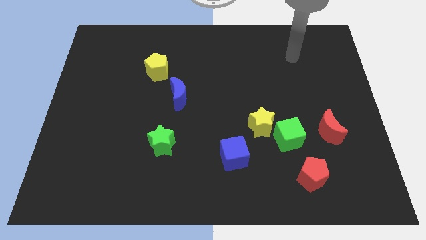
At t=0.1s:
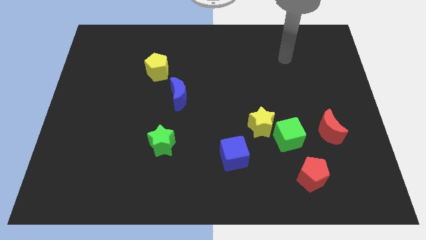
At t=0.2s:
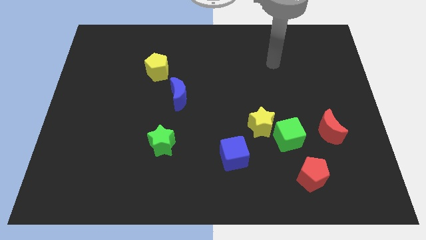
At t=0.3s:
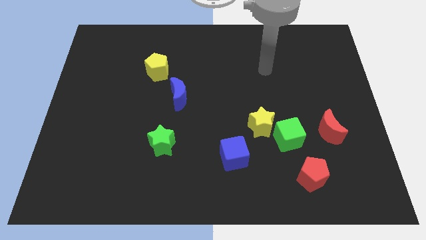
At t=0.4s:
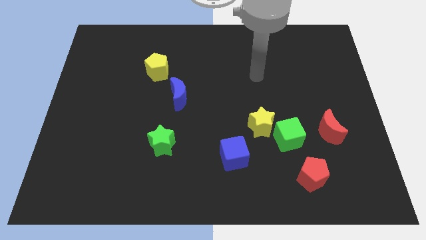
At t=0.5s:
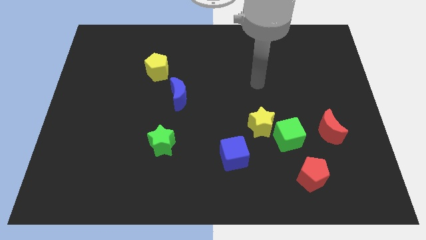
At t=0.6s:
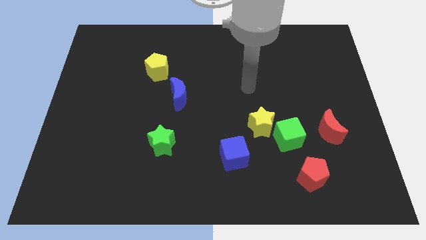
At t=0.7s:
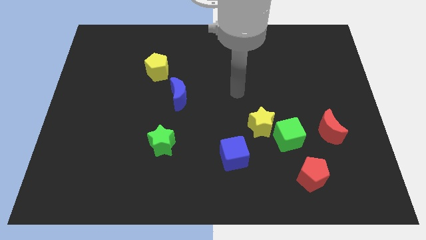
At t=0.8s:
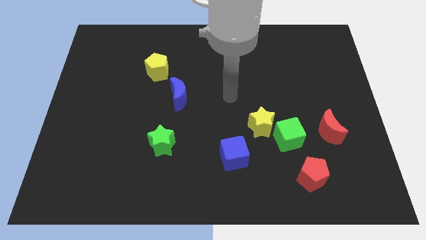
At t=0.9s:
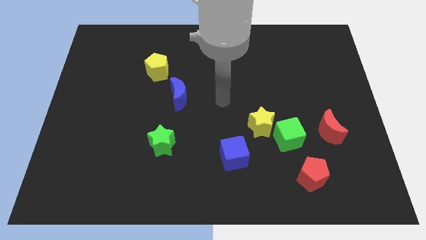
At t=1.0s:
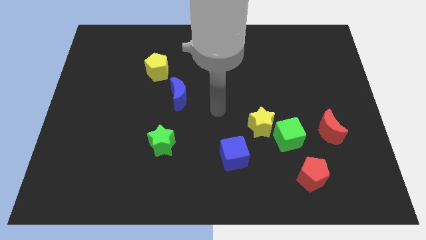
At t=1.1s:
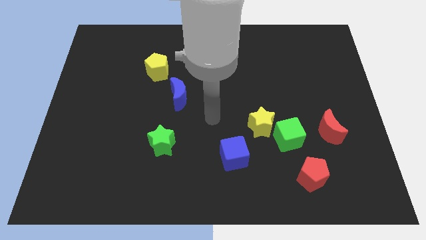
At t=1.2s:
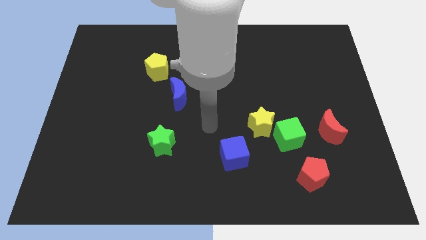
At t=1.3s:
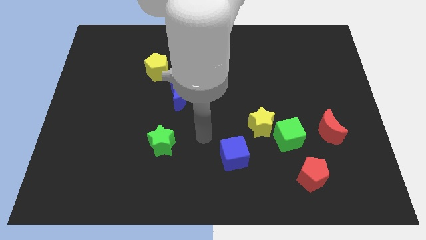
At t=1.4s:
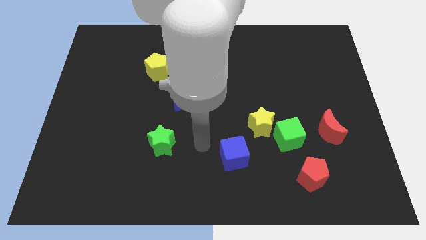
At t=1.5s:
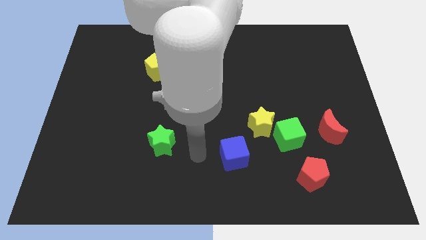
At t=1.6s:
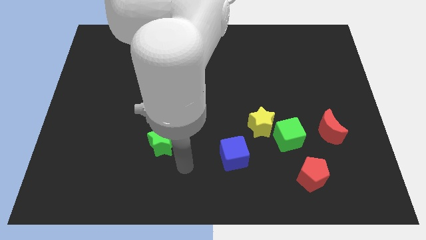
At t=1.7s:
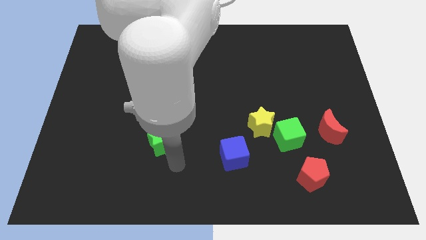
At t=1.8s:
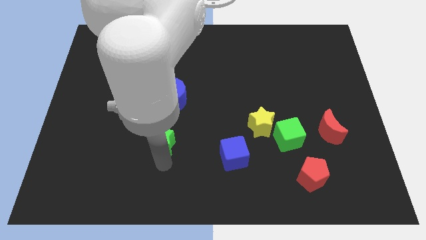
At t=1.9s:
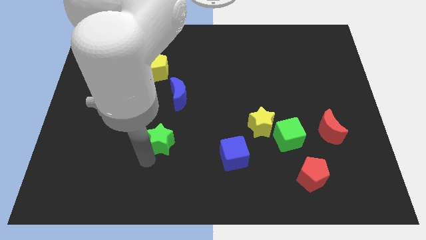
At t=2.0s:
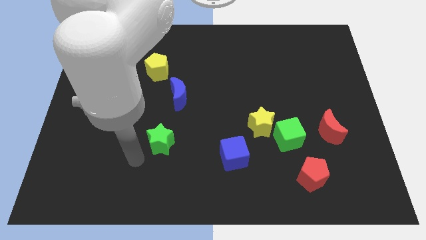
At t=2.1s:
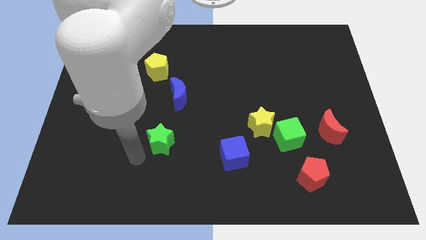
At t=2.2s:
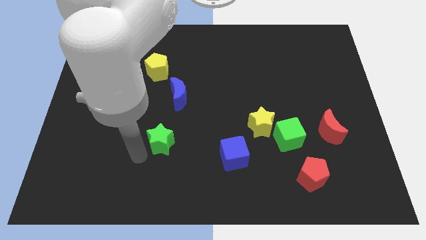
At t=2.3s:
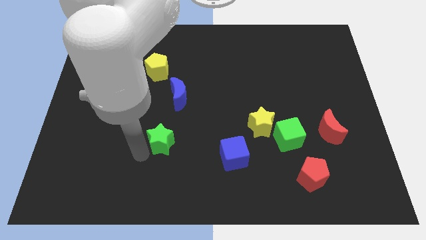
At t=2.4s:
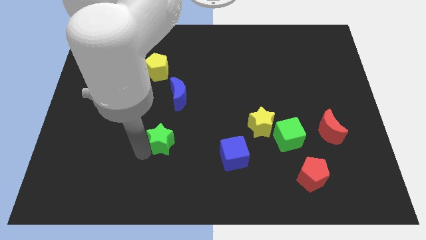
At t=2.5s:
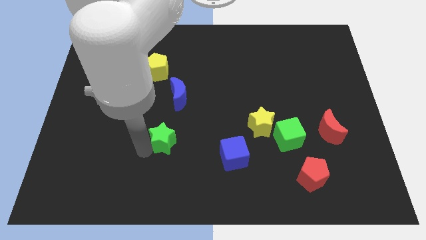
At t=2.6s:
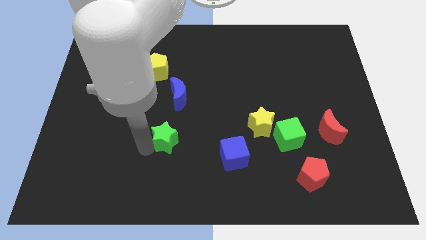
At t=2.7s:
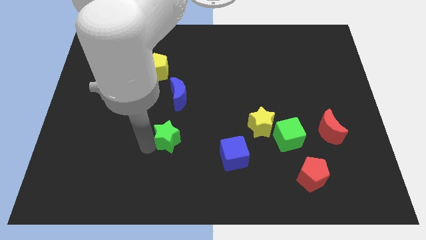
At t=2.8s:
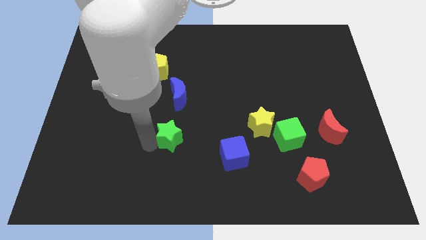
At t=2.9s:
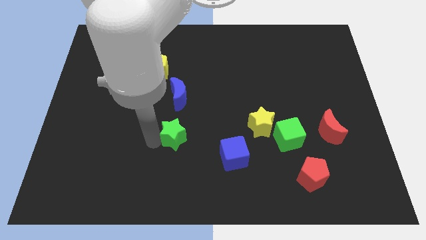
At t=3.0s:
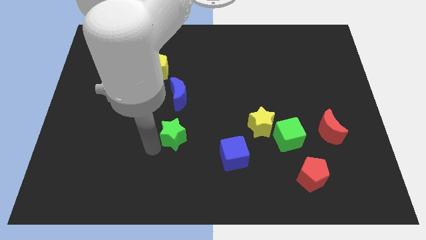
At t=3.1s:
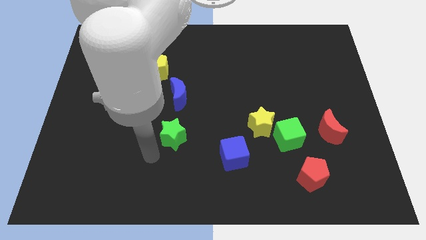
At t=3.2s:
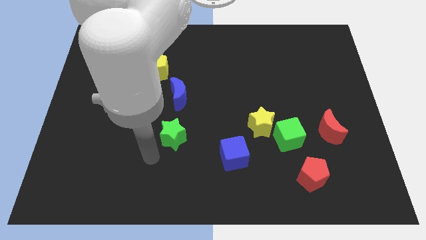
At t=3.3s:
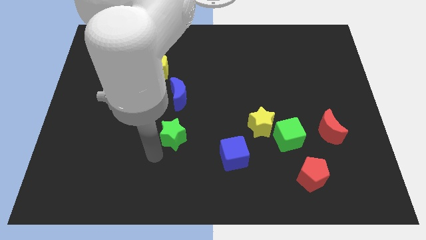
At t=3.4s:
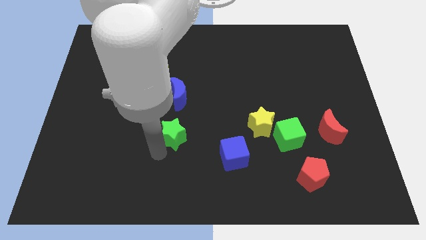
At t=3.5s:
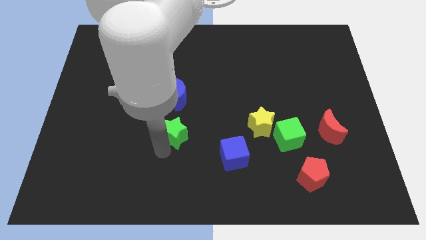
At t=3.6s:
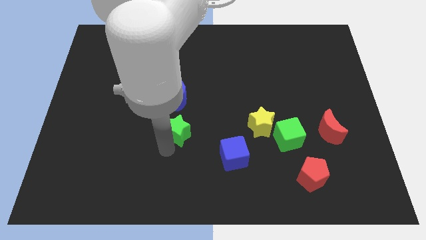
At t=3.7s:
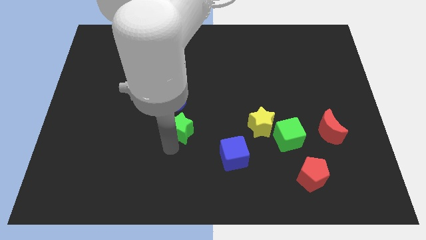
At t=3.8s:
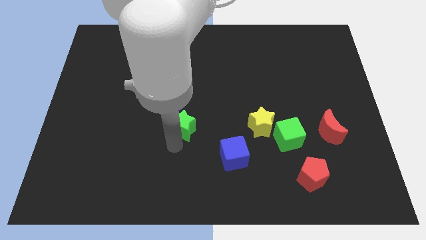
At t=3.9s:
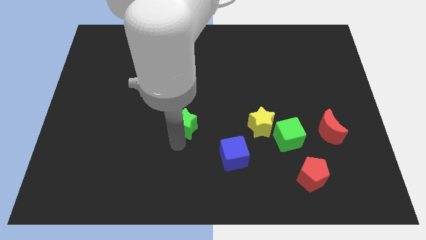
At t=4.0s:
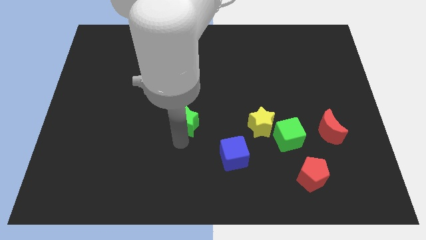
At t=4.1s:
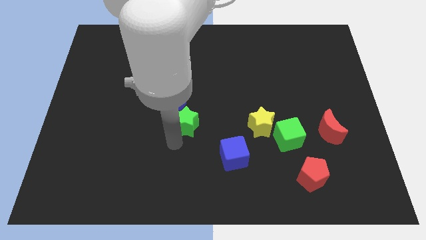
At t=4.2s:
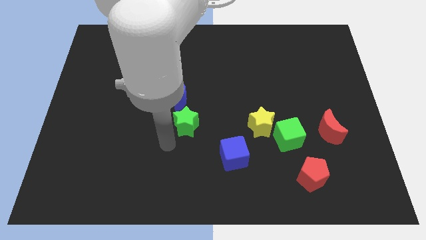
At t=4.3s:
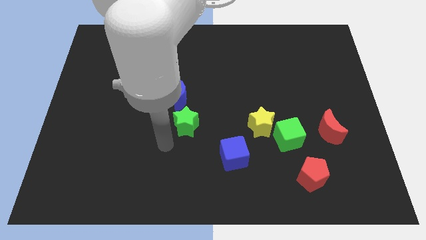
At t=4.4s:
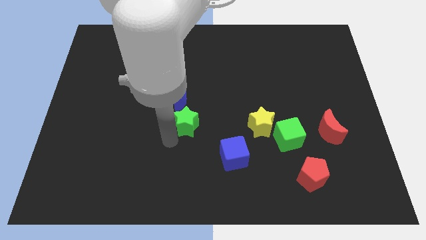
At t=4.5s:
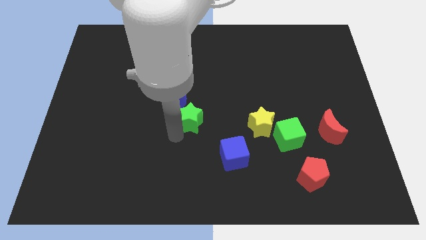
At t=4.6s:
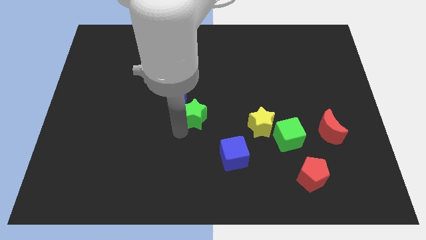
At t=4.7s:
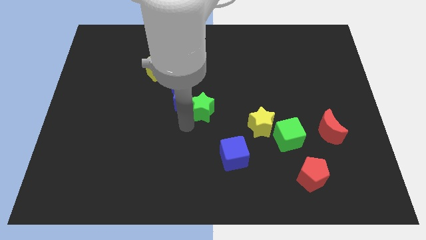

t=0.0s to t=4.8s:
push the green star right of the blue moon

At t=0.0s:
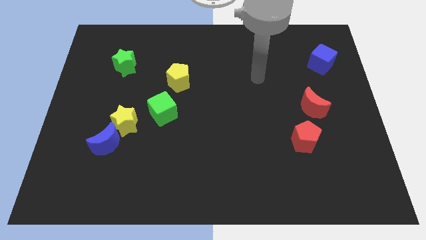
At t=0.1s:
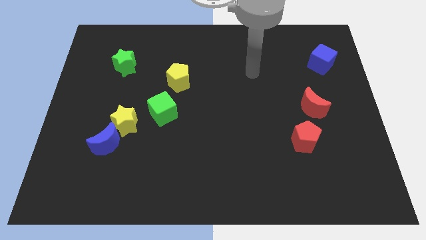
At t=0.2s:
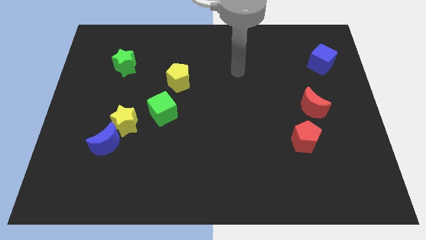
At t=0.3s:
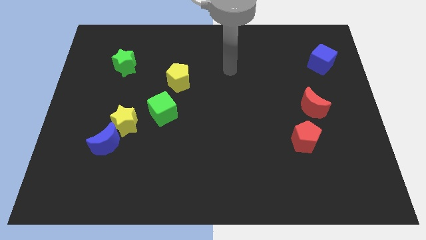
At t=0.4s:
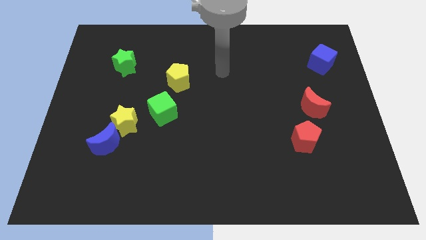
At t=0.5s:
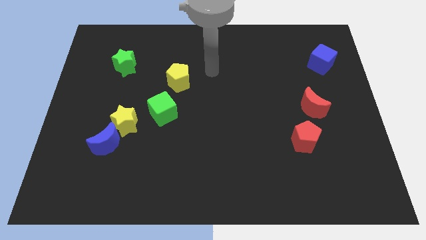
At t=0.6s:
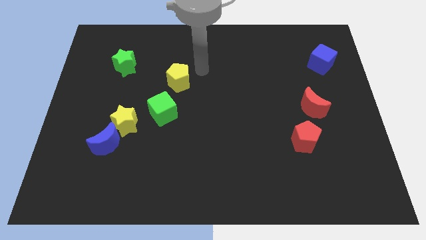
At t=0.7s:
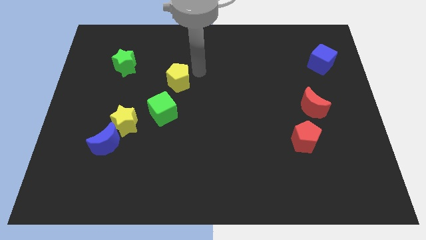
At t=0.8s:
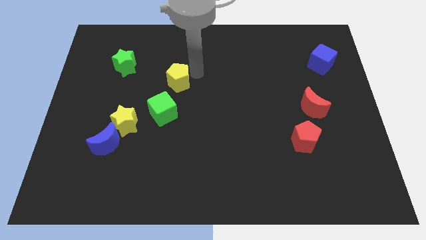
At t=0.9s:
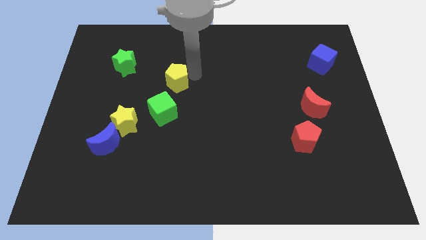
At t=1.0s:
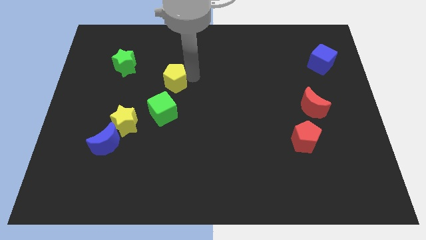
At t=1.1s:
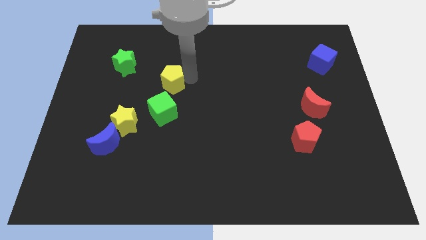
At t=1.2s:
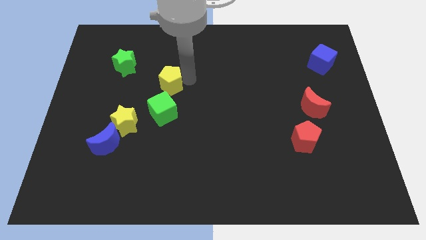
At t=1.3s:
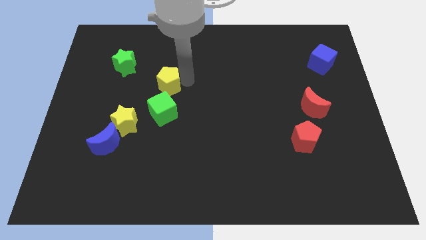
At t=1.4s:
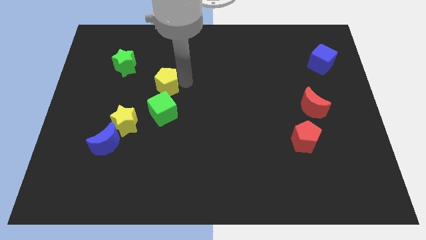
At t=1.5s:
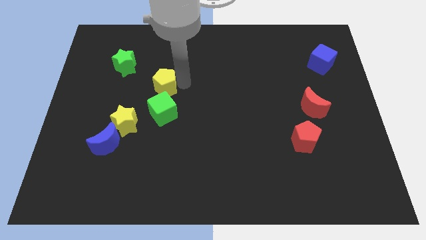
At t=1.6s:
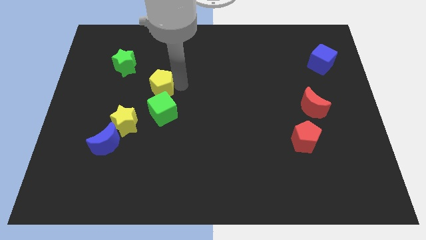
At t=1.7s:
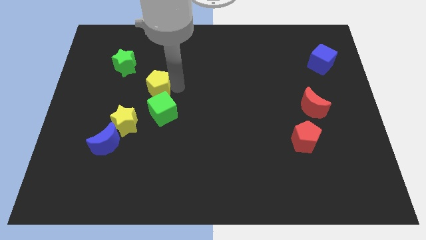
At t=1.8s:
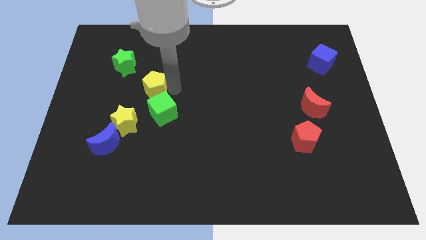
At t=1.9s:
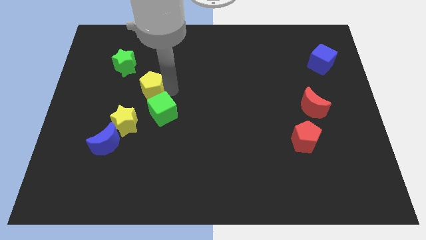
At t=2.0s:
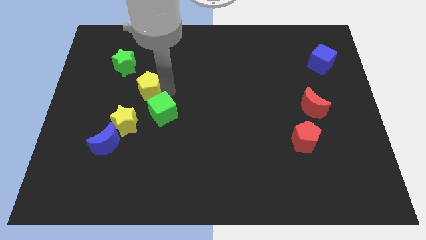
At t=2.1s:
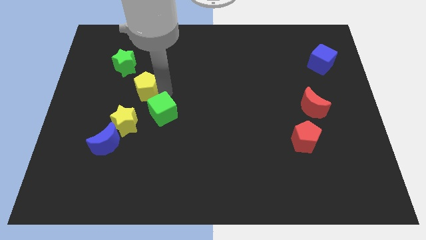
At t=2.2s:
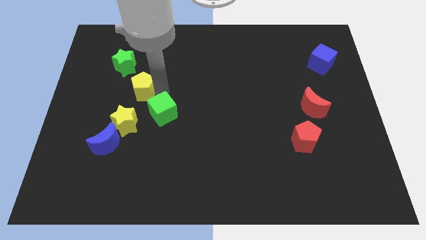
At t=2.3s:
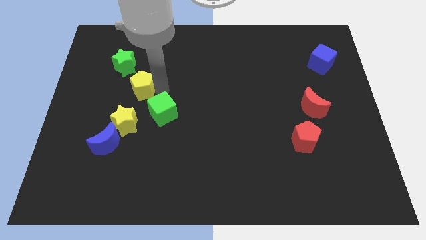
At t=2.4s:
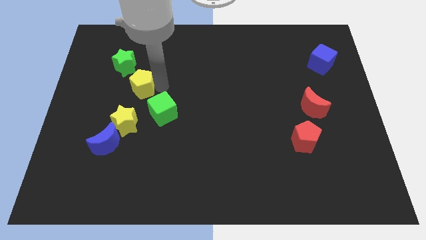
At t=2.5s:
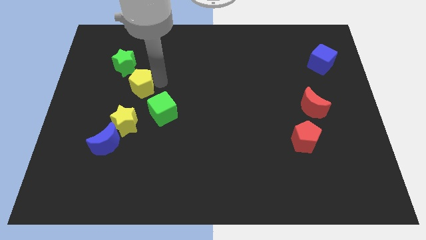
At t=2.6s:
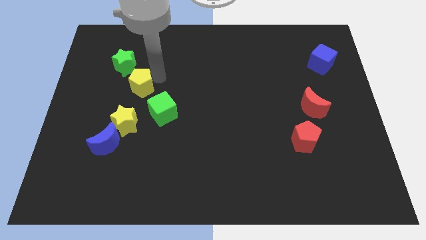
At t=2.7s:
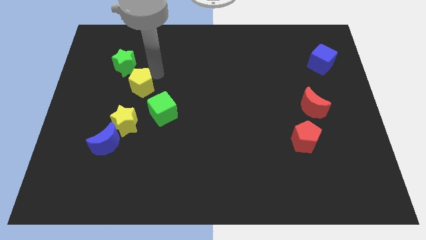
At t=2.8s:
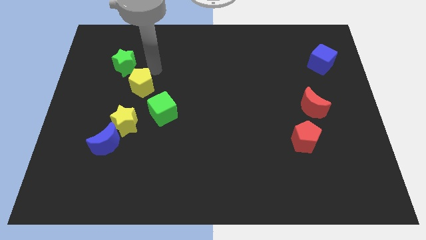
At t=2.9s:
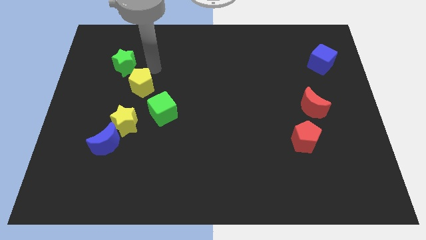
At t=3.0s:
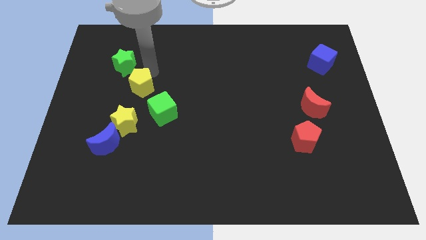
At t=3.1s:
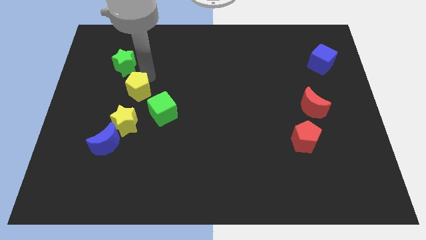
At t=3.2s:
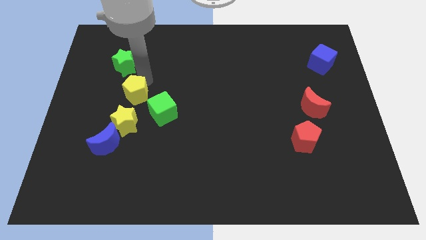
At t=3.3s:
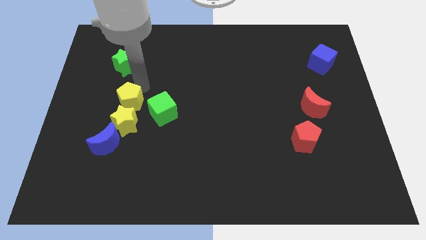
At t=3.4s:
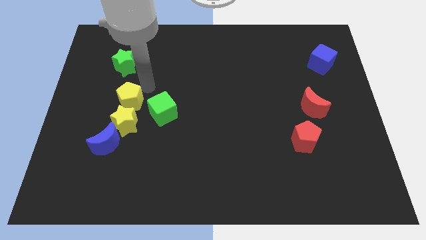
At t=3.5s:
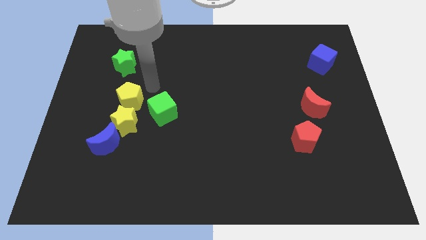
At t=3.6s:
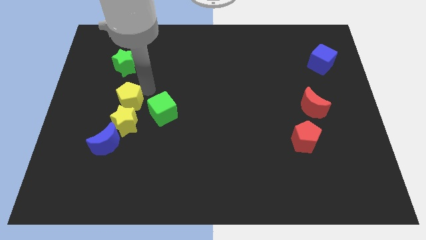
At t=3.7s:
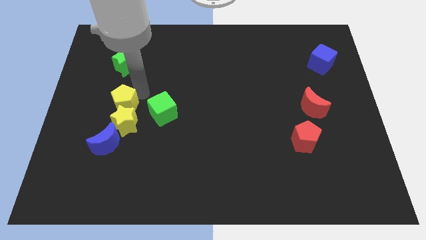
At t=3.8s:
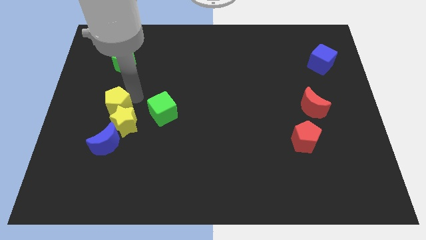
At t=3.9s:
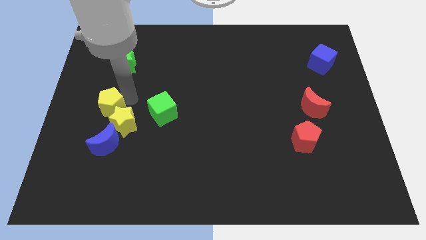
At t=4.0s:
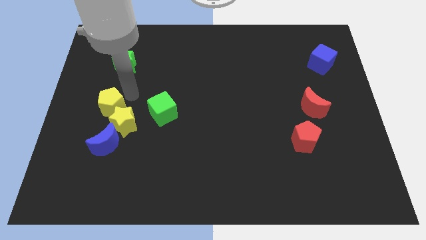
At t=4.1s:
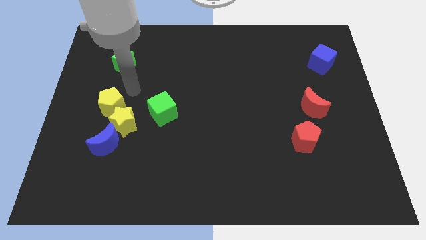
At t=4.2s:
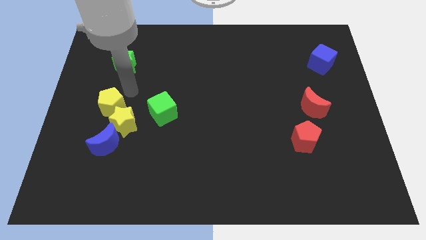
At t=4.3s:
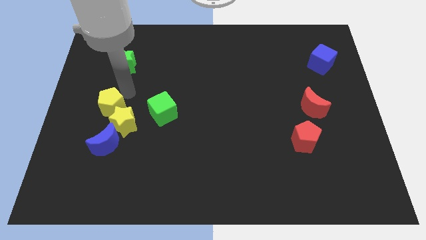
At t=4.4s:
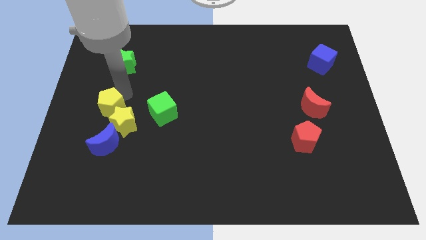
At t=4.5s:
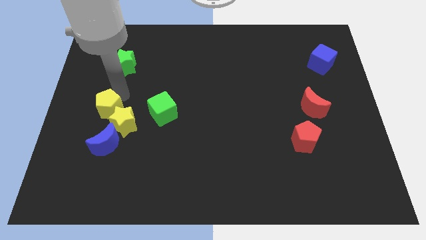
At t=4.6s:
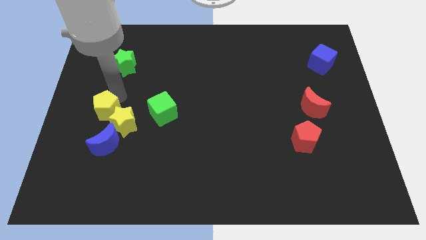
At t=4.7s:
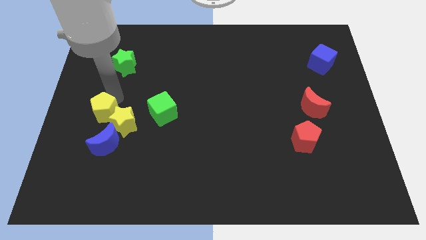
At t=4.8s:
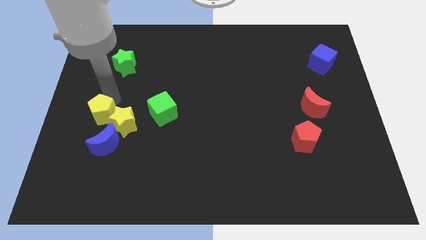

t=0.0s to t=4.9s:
move the yellow pentagon diagonally up and to the left of the blue moon
